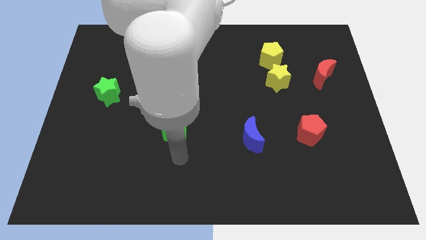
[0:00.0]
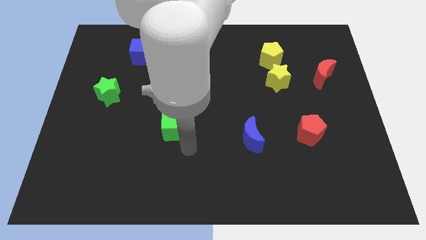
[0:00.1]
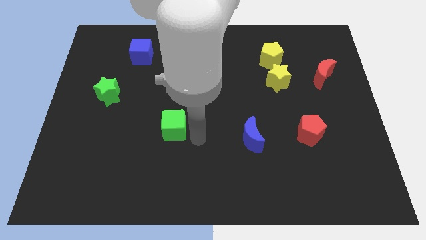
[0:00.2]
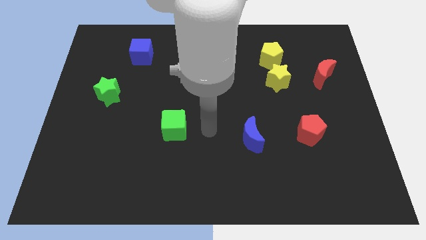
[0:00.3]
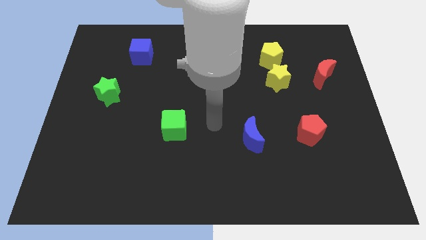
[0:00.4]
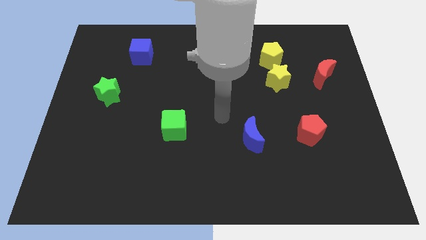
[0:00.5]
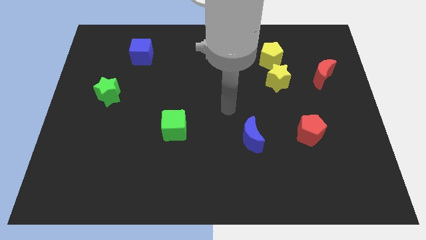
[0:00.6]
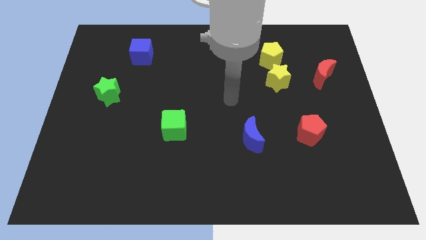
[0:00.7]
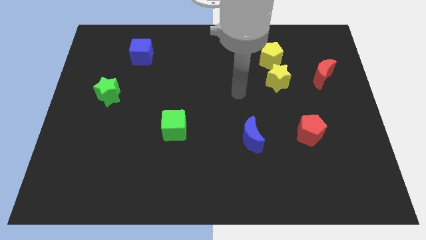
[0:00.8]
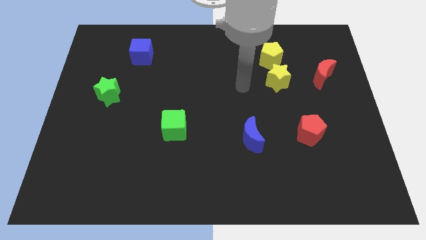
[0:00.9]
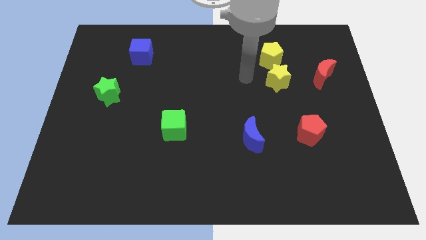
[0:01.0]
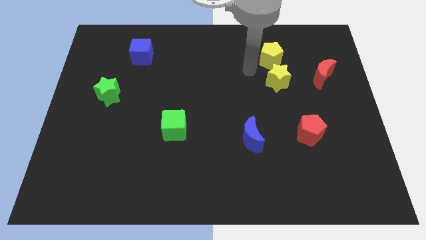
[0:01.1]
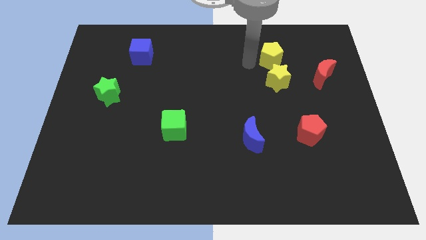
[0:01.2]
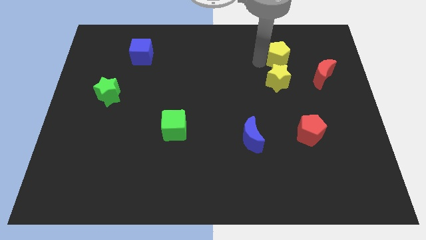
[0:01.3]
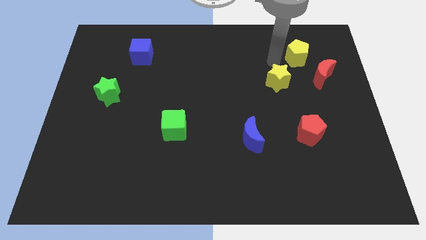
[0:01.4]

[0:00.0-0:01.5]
move the yellow star away from the yellow pentagon

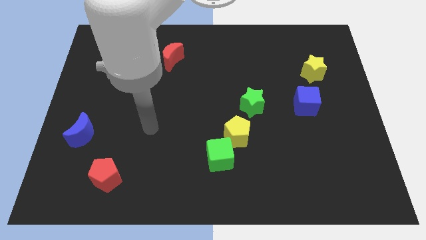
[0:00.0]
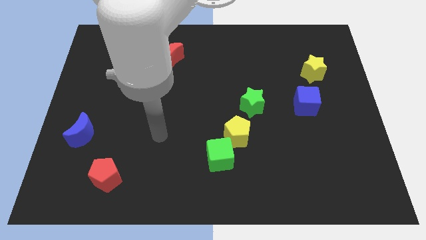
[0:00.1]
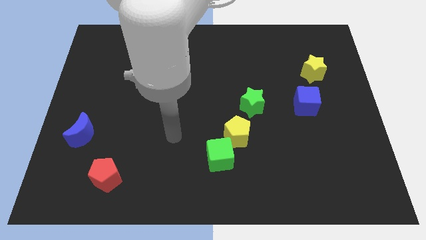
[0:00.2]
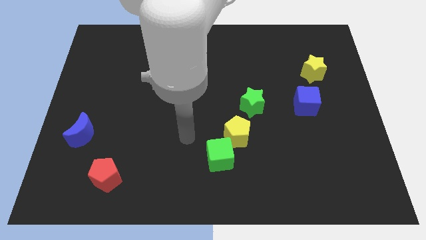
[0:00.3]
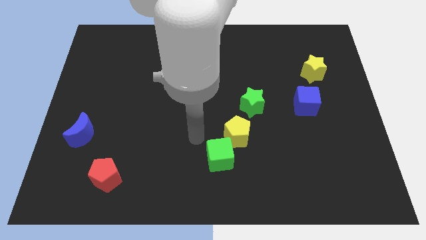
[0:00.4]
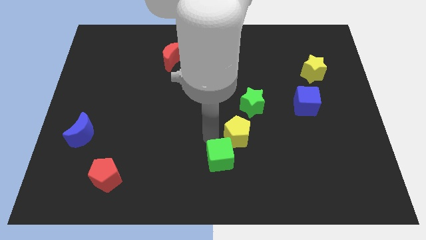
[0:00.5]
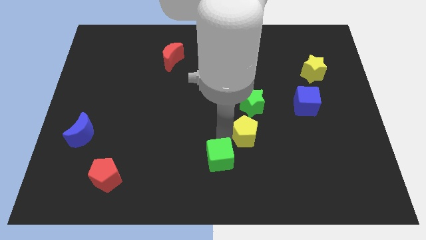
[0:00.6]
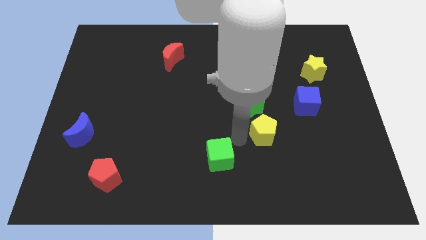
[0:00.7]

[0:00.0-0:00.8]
pull the green cube apart from the yellow pentagon

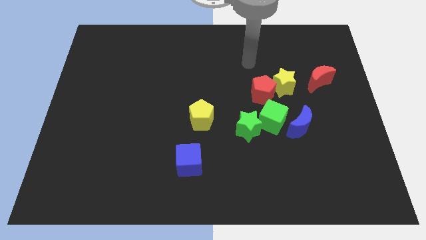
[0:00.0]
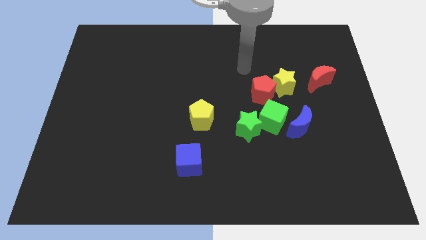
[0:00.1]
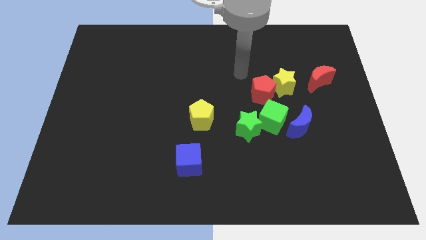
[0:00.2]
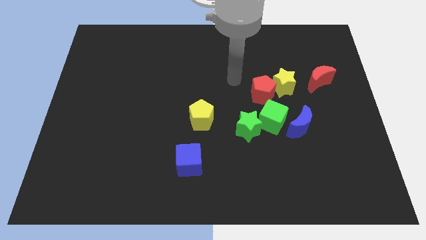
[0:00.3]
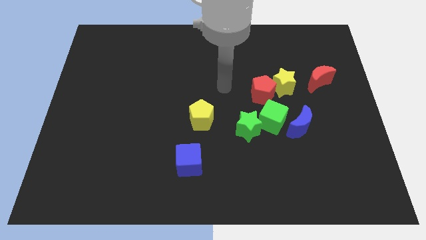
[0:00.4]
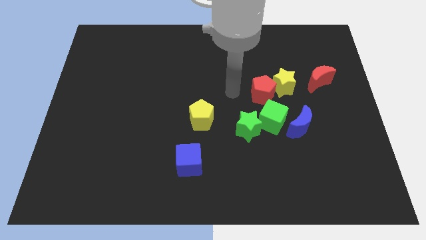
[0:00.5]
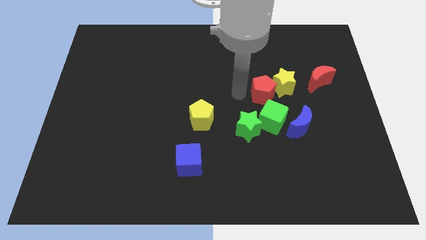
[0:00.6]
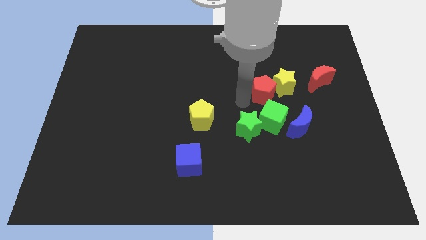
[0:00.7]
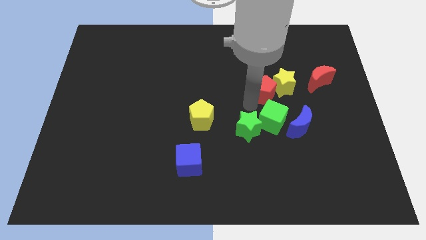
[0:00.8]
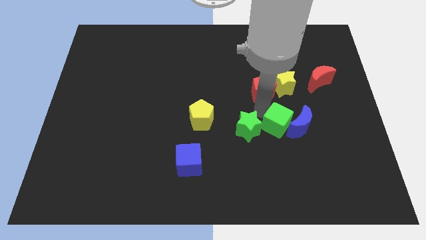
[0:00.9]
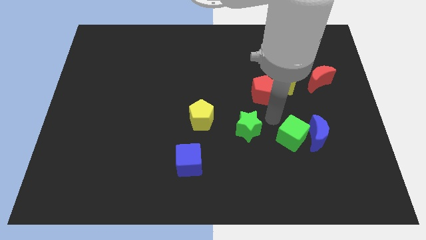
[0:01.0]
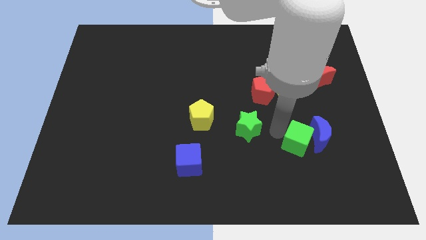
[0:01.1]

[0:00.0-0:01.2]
separate the green star from the green cube

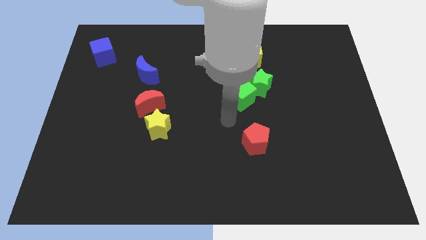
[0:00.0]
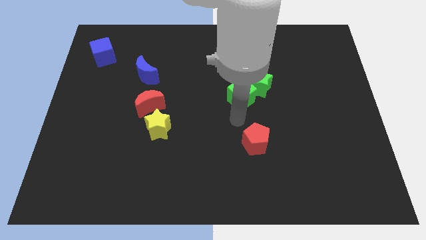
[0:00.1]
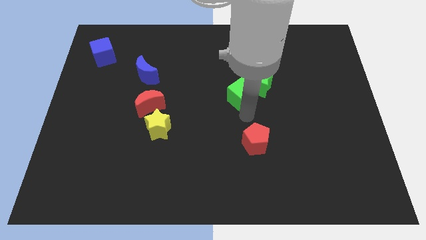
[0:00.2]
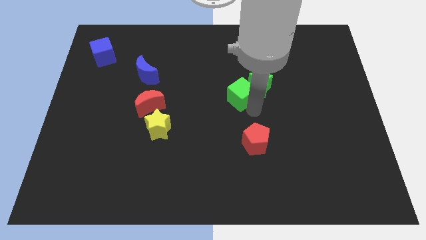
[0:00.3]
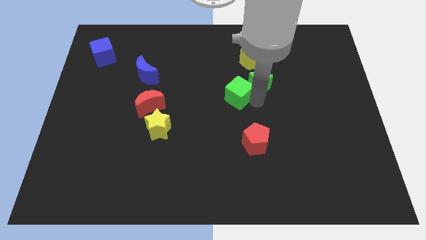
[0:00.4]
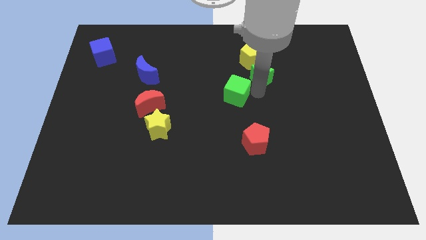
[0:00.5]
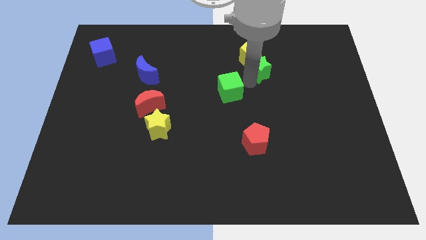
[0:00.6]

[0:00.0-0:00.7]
separate the green cube from the green star

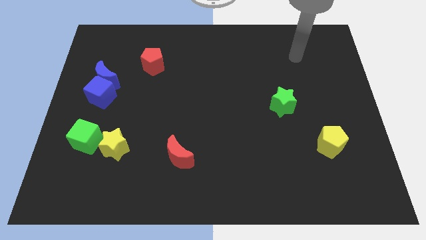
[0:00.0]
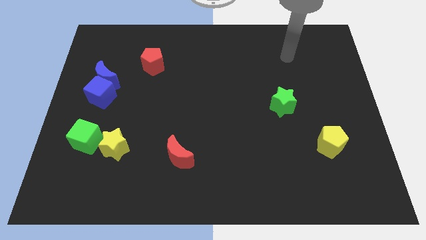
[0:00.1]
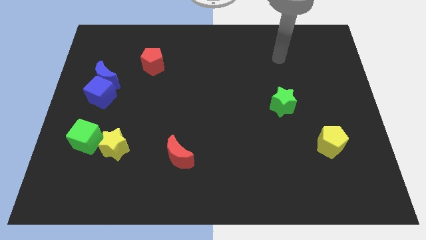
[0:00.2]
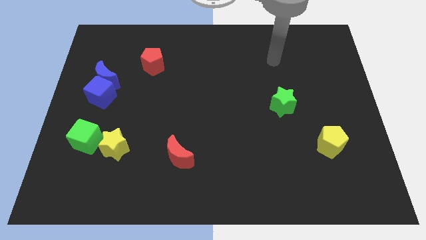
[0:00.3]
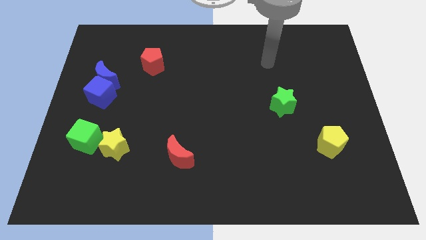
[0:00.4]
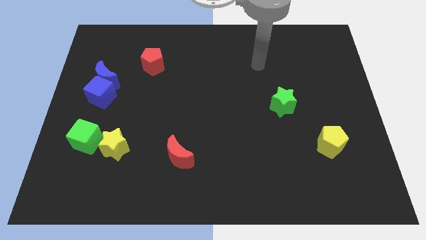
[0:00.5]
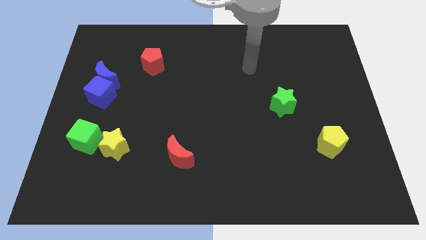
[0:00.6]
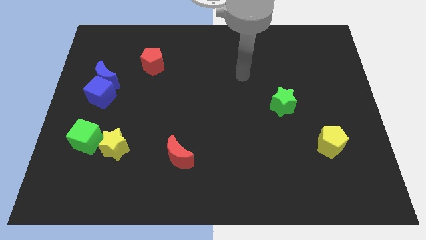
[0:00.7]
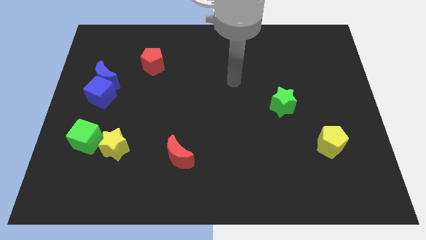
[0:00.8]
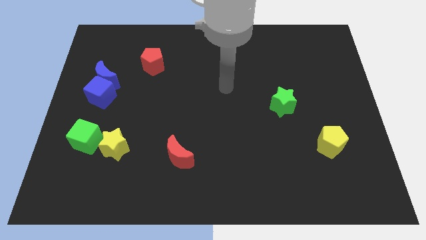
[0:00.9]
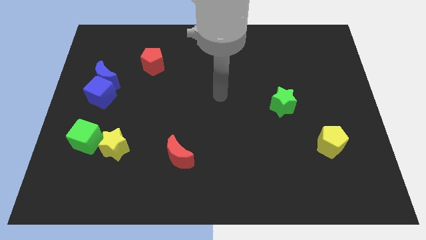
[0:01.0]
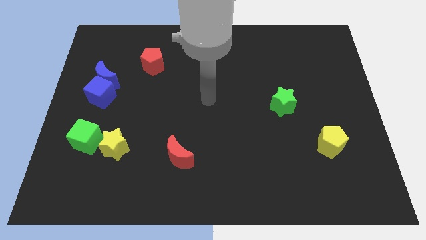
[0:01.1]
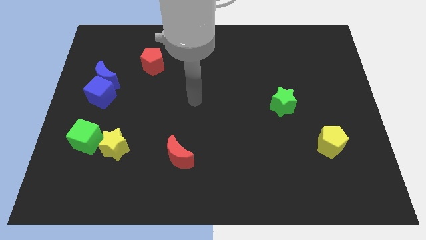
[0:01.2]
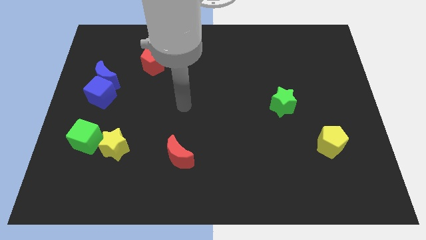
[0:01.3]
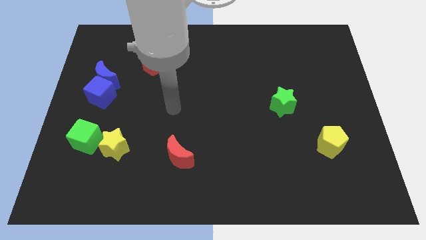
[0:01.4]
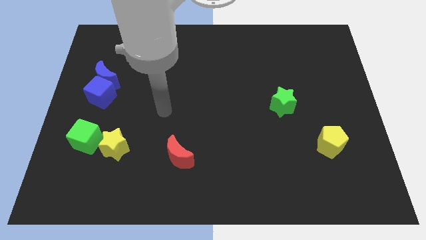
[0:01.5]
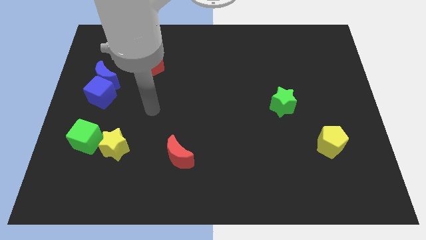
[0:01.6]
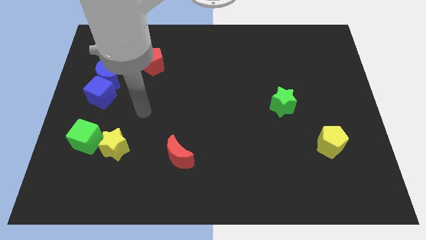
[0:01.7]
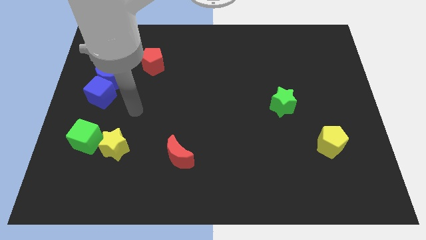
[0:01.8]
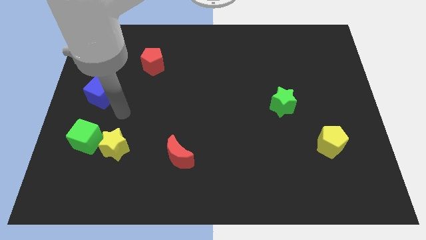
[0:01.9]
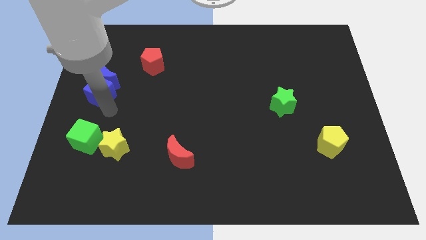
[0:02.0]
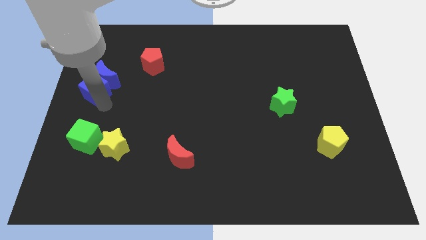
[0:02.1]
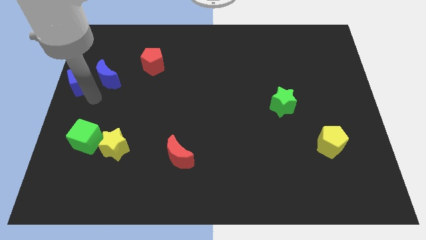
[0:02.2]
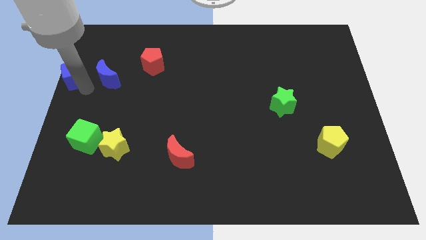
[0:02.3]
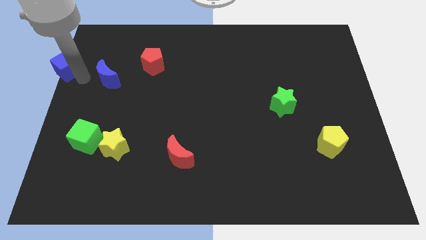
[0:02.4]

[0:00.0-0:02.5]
pull the blue moon apart from the blue cube

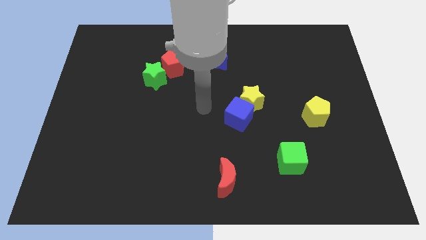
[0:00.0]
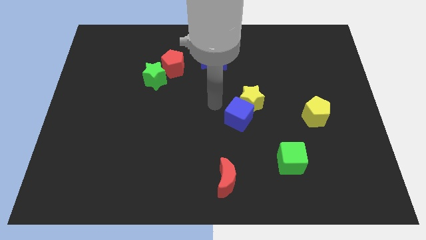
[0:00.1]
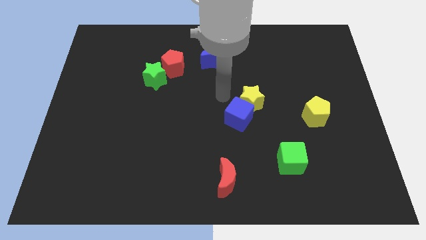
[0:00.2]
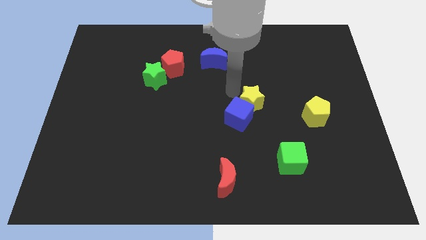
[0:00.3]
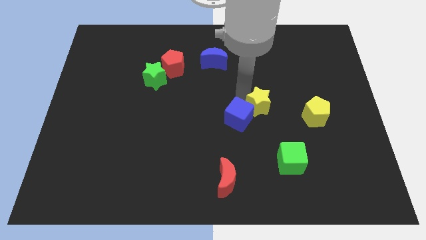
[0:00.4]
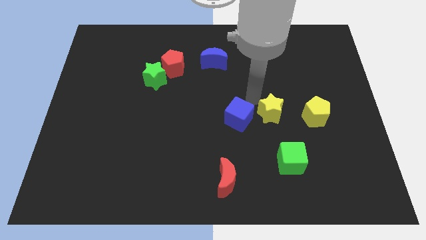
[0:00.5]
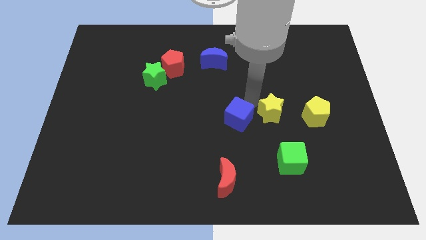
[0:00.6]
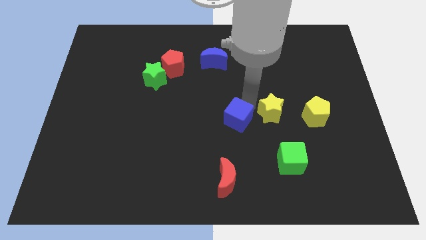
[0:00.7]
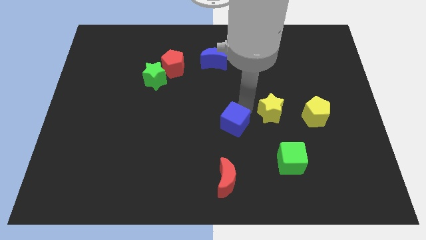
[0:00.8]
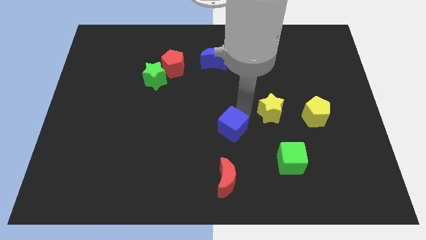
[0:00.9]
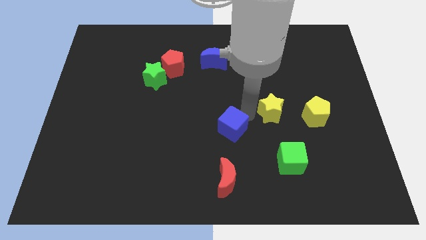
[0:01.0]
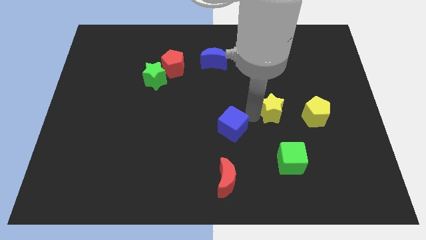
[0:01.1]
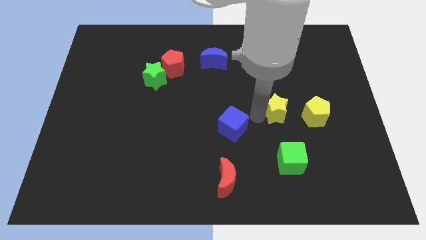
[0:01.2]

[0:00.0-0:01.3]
move the blue cube away from the yellow star

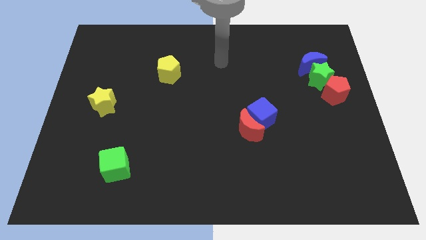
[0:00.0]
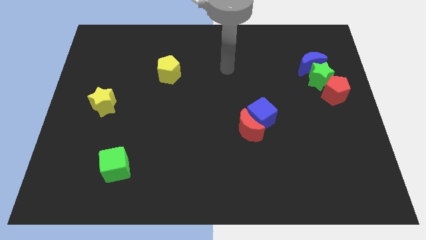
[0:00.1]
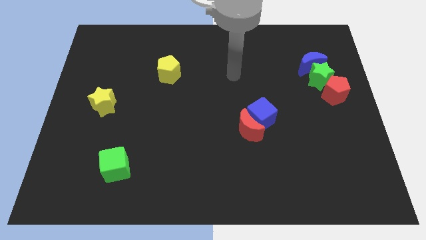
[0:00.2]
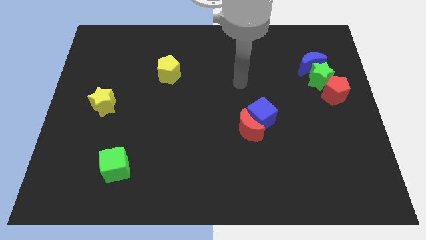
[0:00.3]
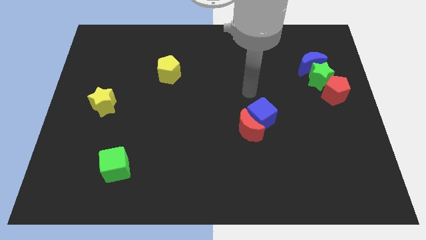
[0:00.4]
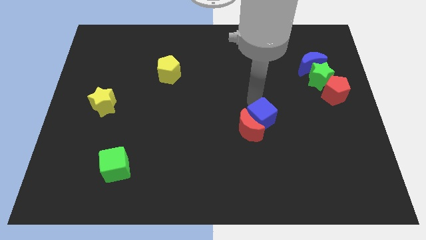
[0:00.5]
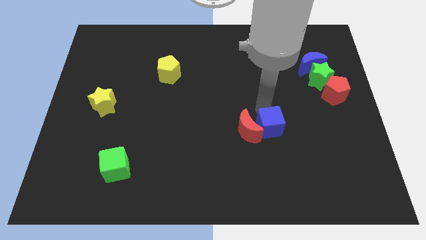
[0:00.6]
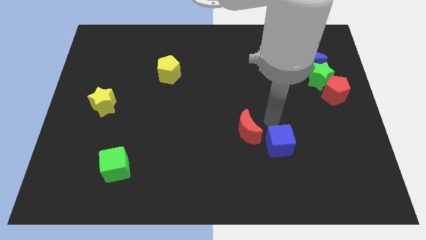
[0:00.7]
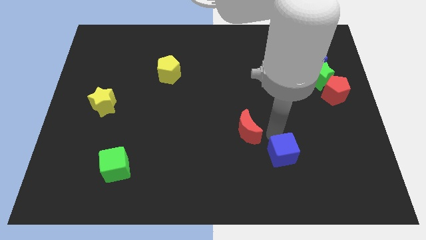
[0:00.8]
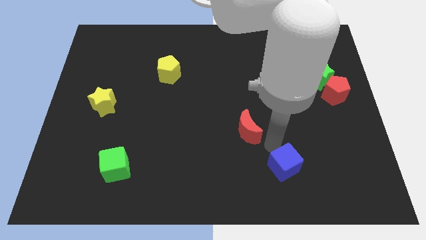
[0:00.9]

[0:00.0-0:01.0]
move the red moon away from the blue cube

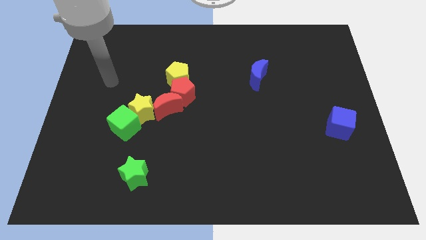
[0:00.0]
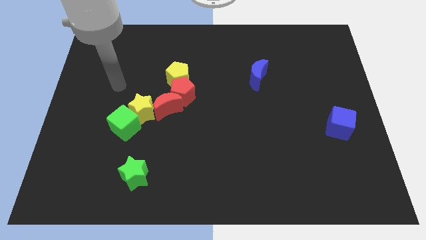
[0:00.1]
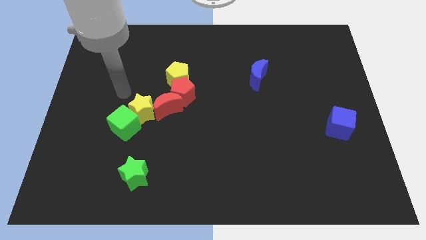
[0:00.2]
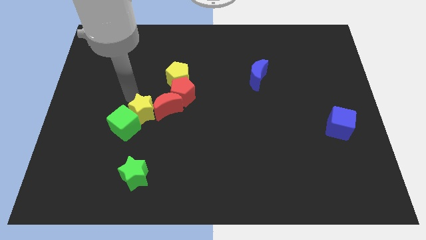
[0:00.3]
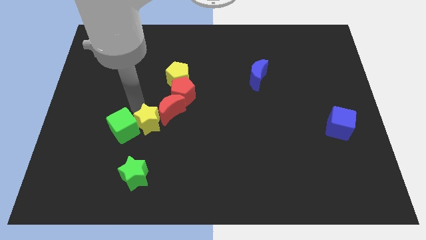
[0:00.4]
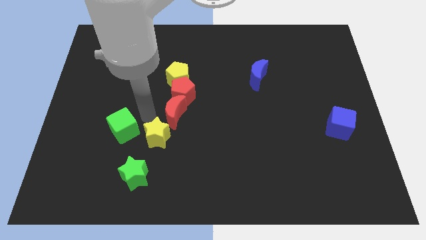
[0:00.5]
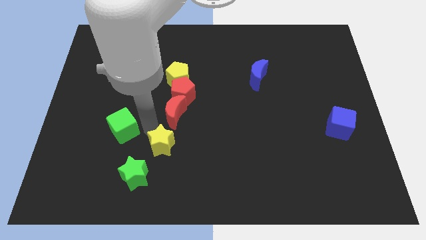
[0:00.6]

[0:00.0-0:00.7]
pull the green cube apart from the yellow star
